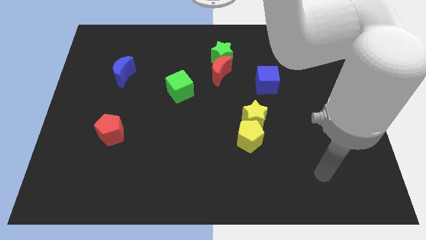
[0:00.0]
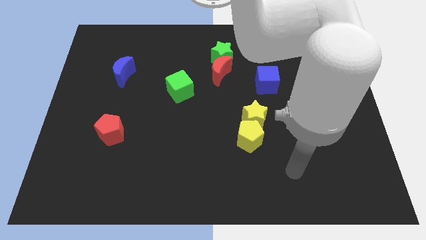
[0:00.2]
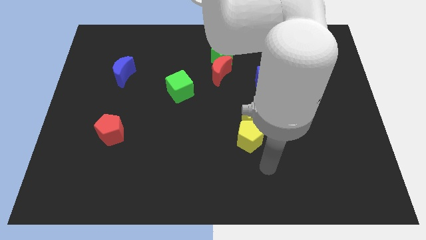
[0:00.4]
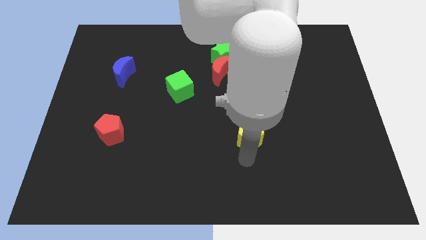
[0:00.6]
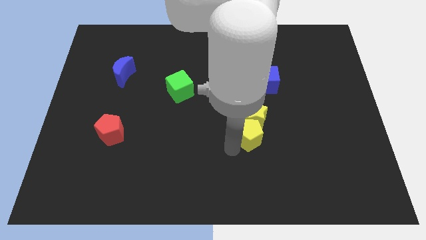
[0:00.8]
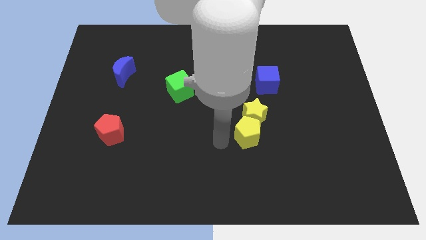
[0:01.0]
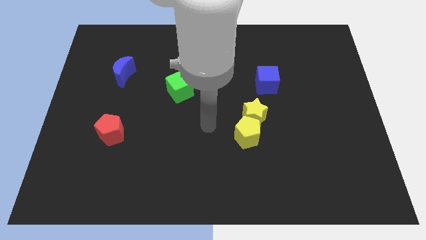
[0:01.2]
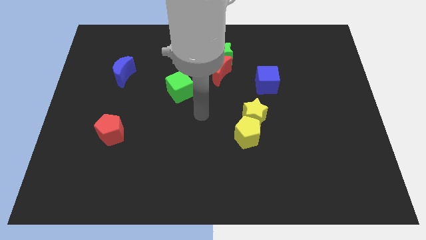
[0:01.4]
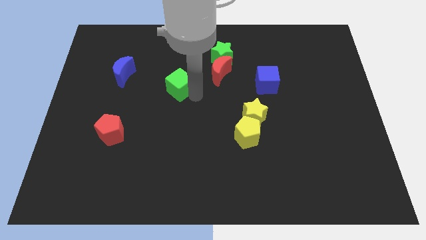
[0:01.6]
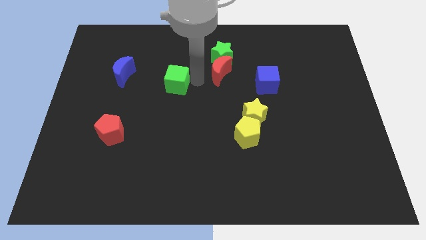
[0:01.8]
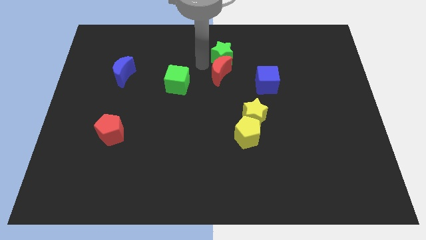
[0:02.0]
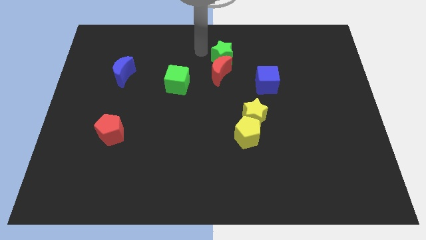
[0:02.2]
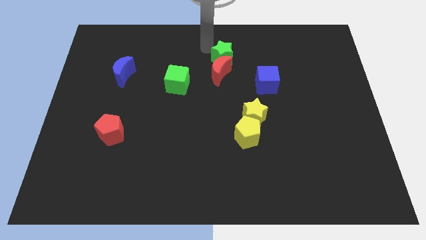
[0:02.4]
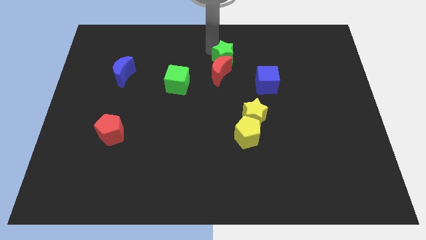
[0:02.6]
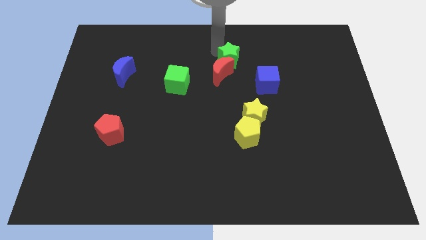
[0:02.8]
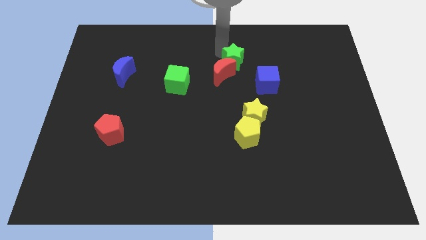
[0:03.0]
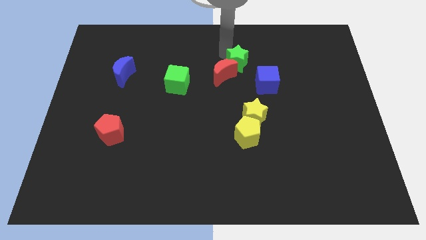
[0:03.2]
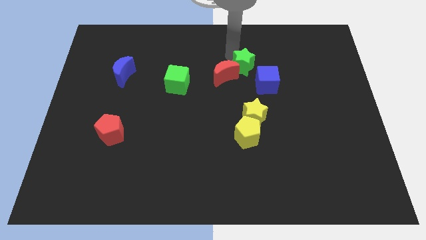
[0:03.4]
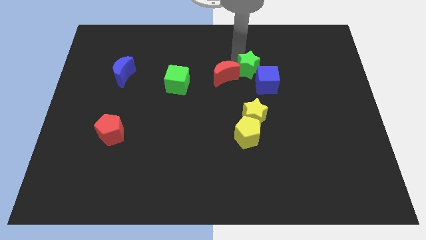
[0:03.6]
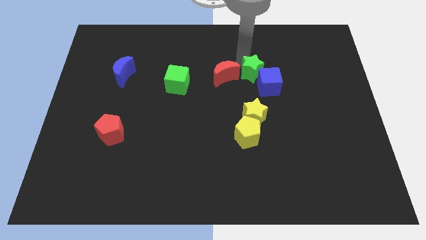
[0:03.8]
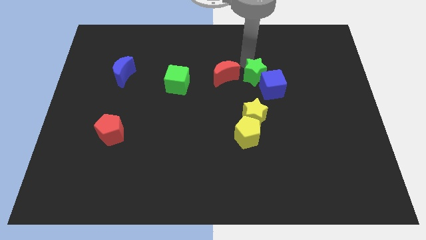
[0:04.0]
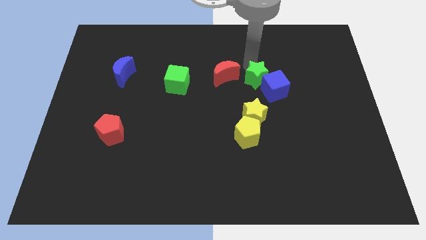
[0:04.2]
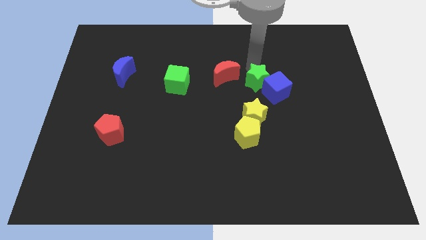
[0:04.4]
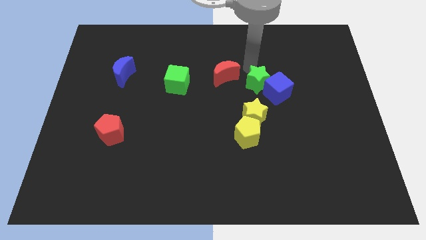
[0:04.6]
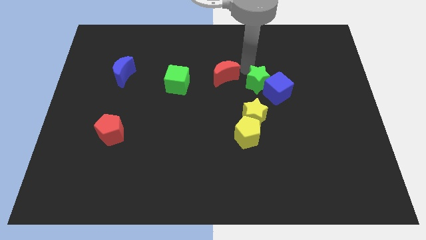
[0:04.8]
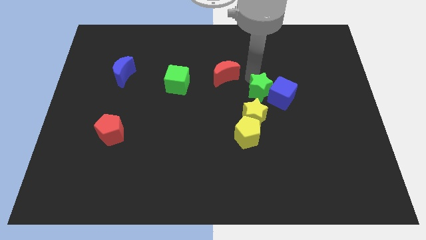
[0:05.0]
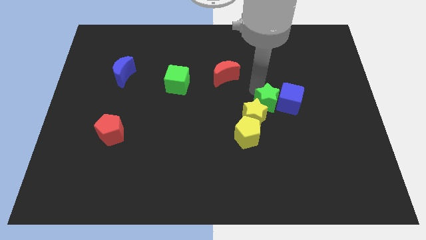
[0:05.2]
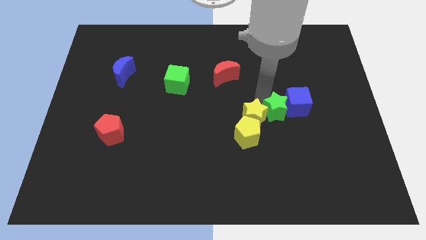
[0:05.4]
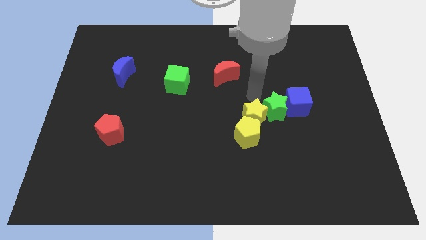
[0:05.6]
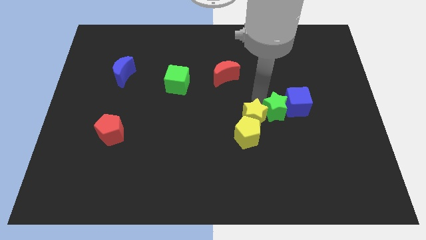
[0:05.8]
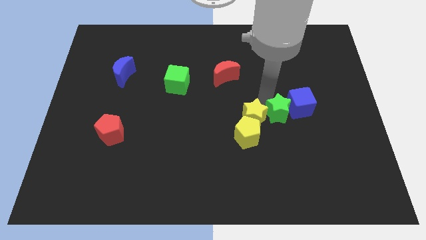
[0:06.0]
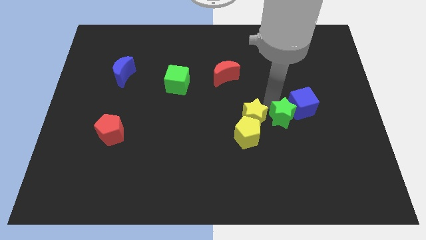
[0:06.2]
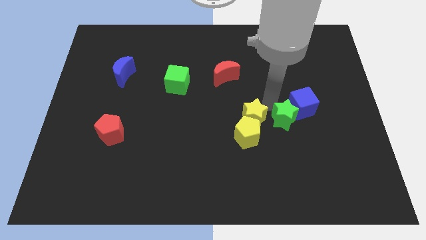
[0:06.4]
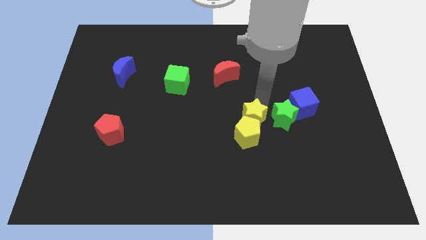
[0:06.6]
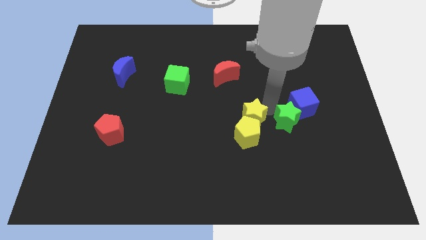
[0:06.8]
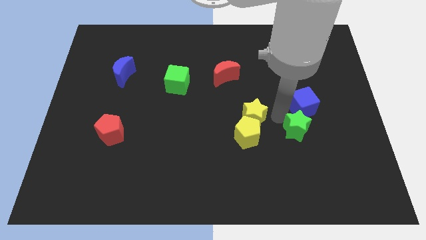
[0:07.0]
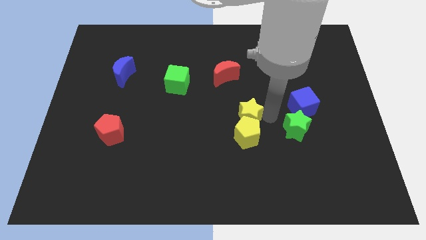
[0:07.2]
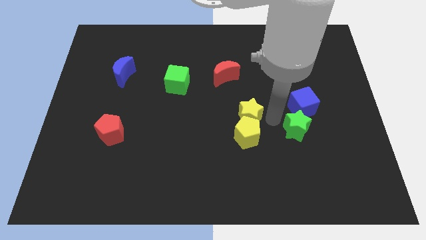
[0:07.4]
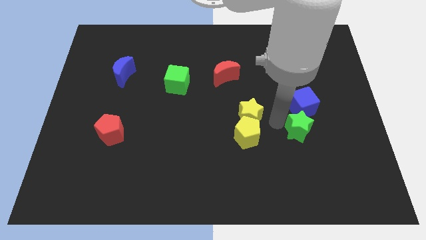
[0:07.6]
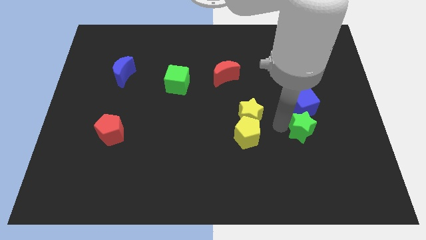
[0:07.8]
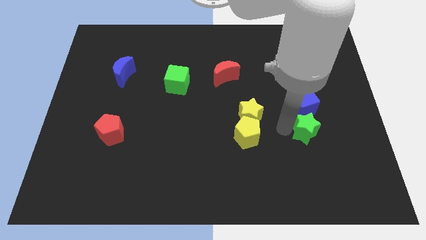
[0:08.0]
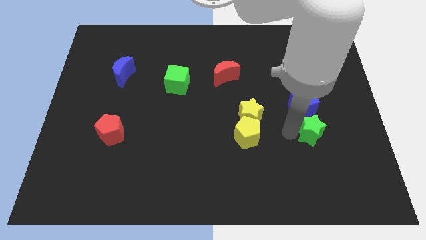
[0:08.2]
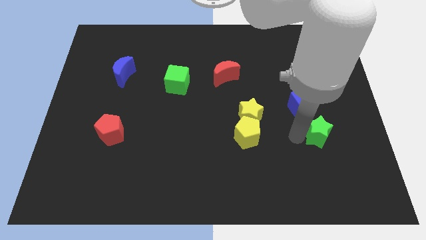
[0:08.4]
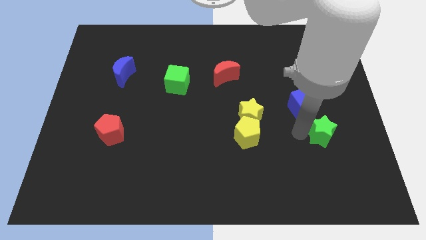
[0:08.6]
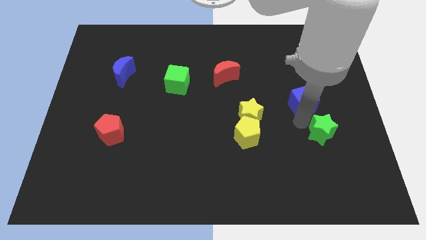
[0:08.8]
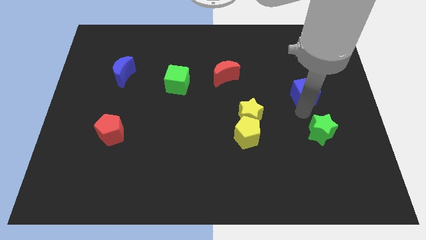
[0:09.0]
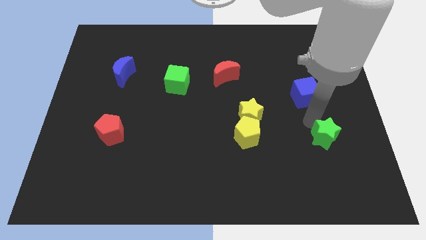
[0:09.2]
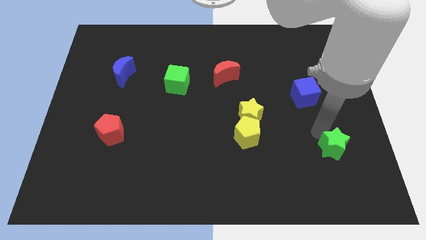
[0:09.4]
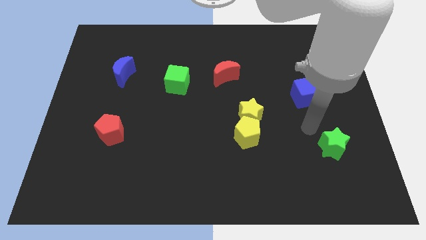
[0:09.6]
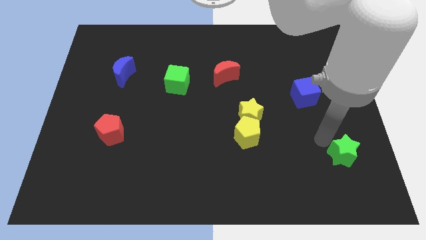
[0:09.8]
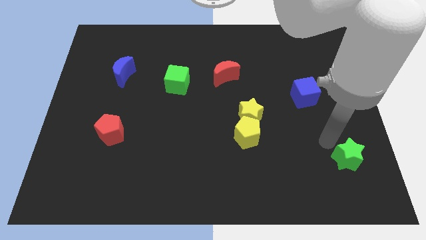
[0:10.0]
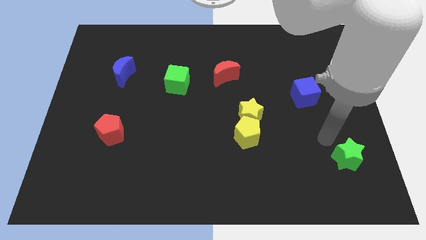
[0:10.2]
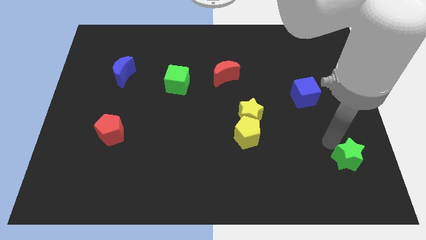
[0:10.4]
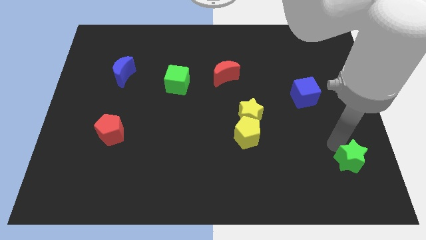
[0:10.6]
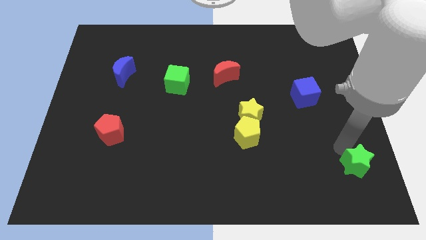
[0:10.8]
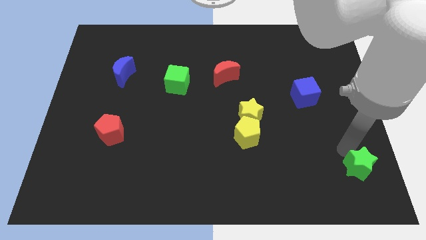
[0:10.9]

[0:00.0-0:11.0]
put the green star to the lower right corner

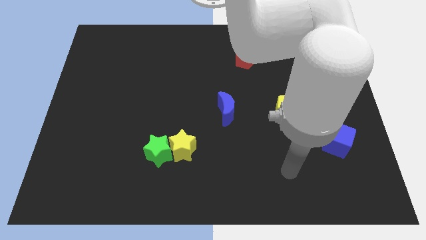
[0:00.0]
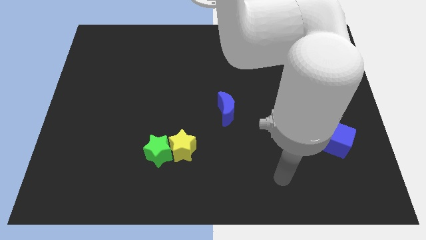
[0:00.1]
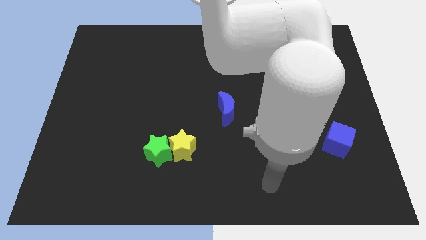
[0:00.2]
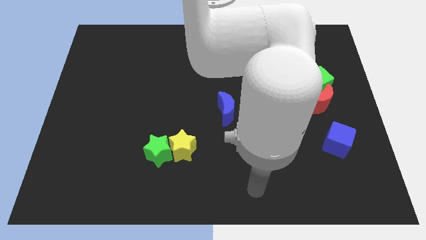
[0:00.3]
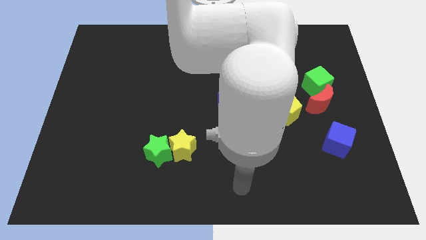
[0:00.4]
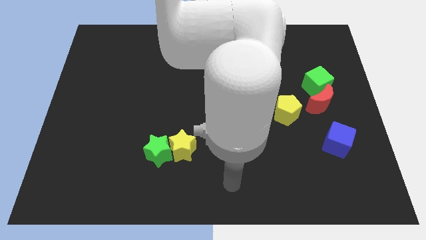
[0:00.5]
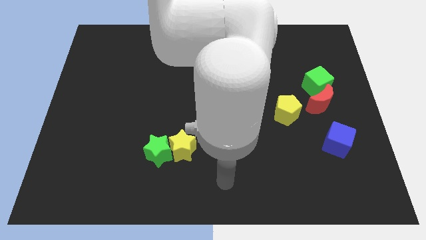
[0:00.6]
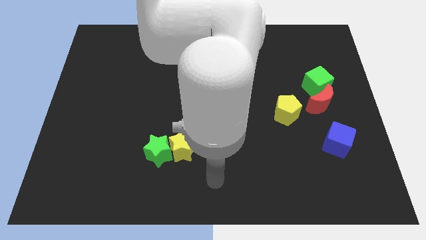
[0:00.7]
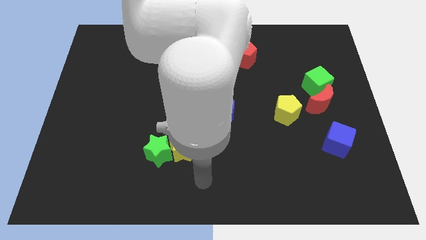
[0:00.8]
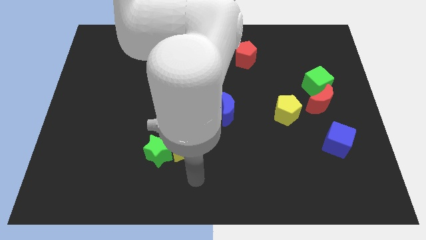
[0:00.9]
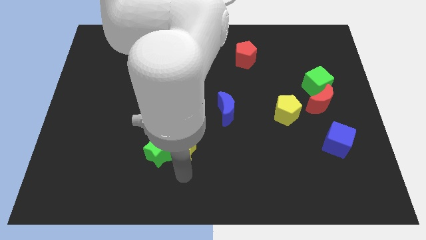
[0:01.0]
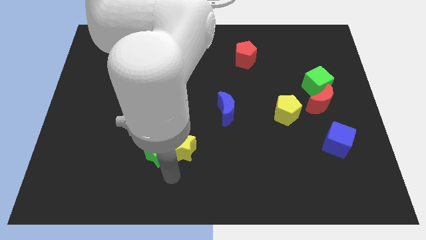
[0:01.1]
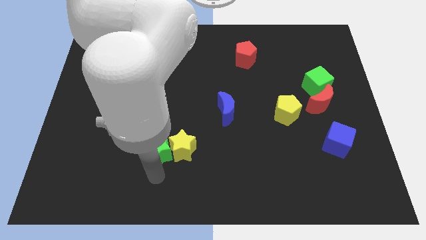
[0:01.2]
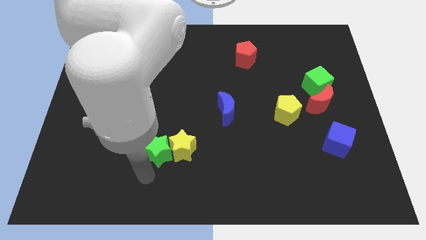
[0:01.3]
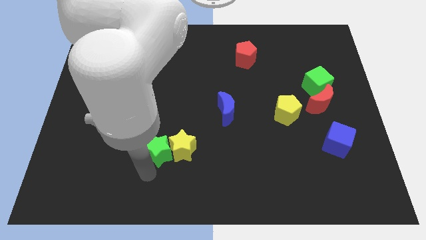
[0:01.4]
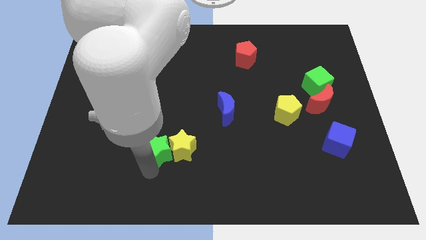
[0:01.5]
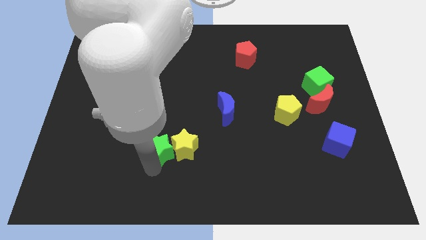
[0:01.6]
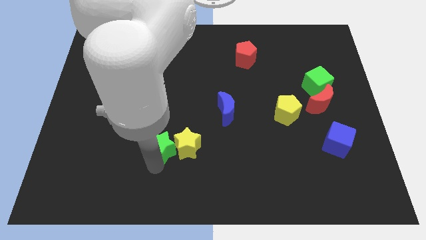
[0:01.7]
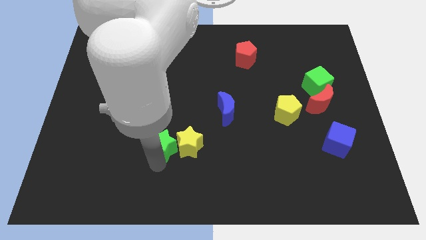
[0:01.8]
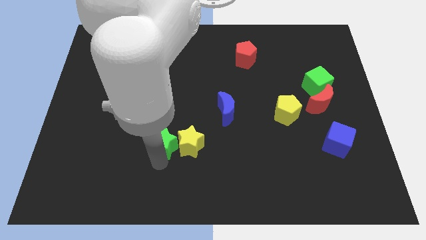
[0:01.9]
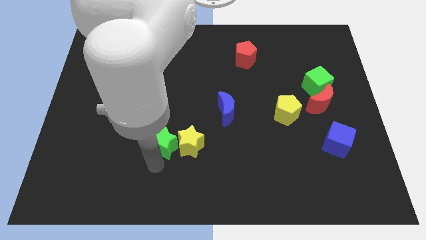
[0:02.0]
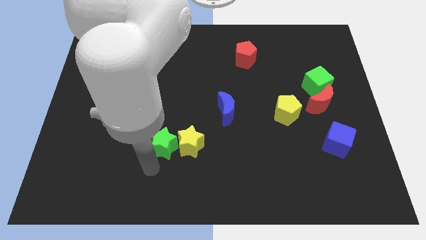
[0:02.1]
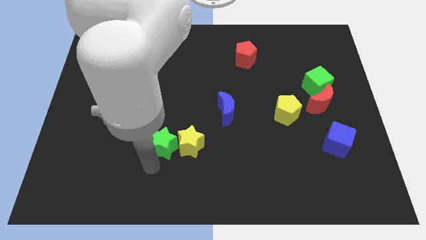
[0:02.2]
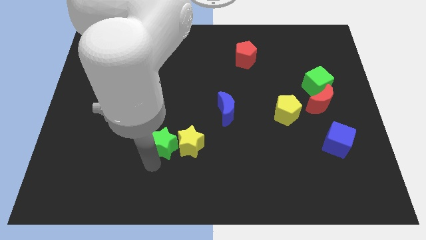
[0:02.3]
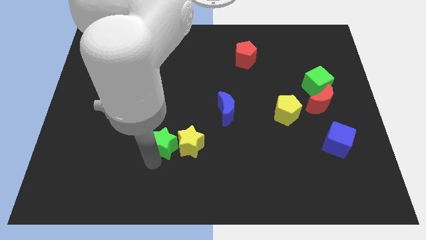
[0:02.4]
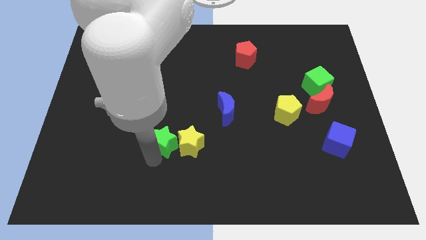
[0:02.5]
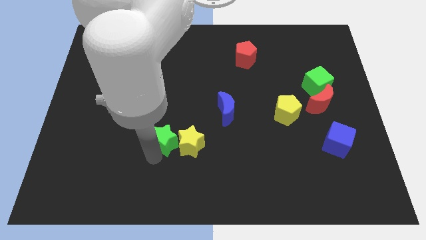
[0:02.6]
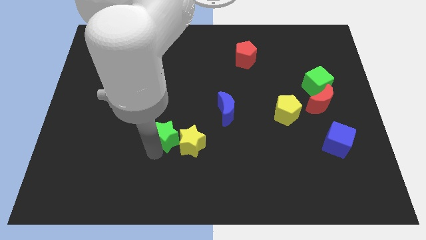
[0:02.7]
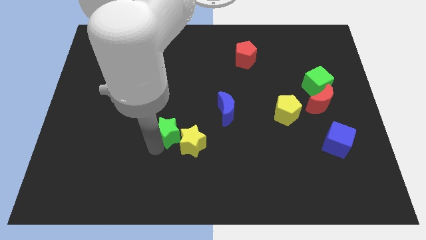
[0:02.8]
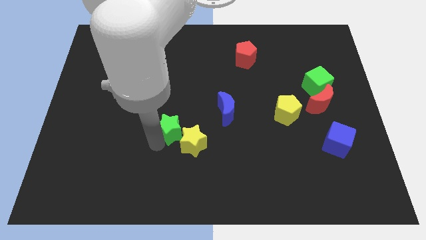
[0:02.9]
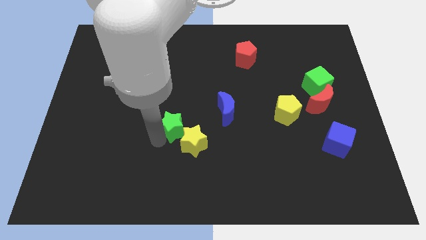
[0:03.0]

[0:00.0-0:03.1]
slide the green star to the center of the board
